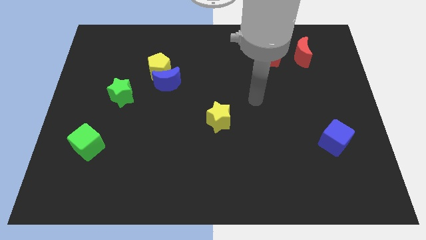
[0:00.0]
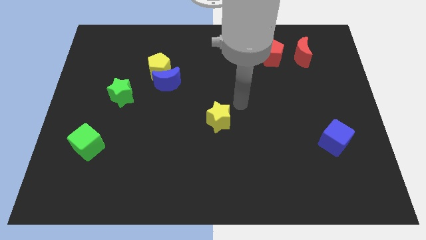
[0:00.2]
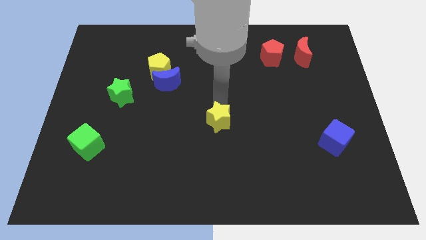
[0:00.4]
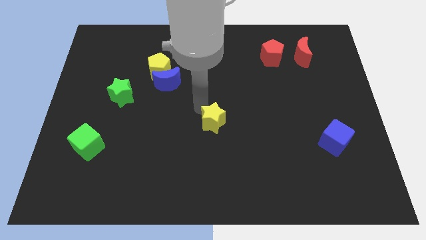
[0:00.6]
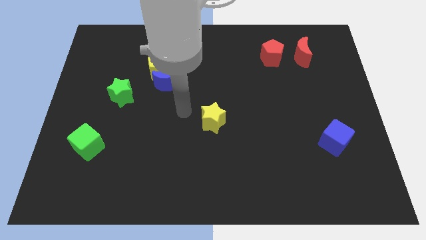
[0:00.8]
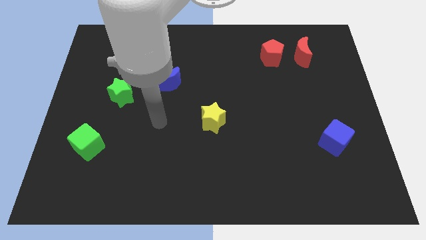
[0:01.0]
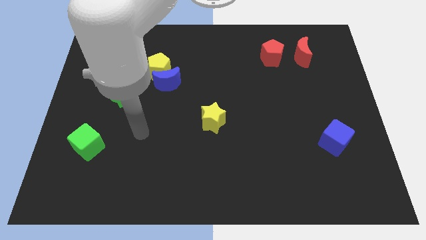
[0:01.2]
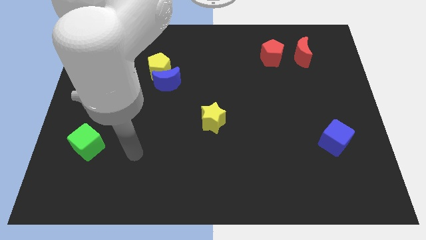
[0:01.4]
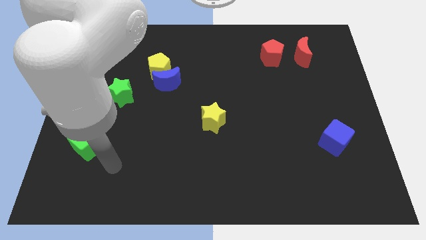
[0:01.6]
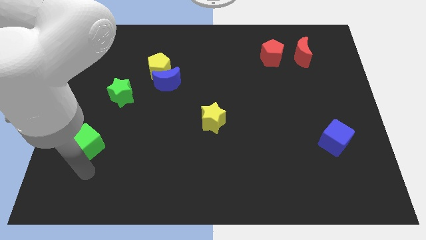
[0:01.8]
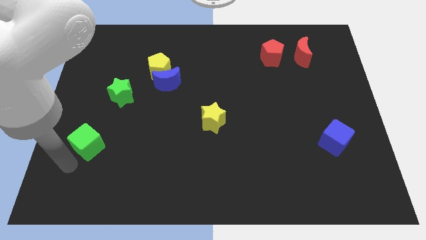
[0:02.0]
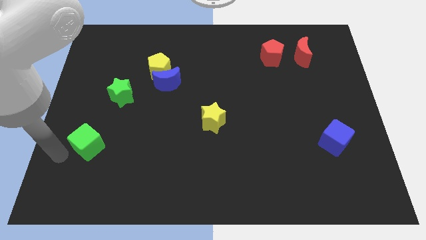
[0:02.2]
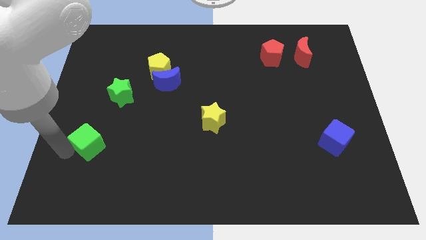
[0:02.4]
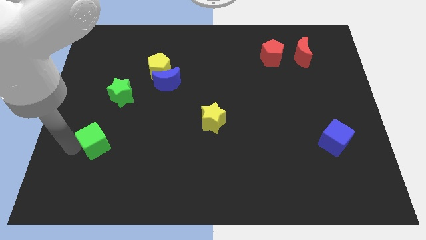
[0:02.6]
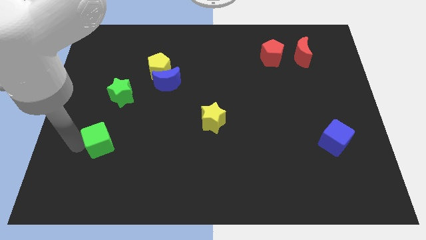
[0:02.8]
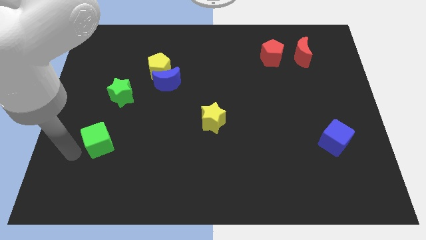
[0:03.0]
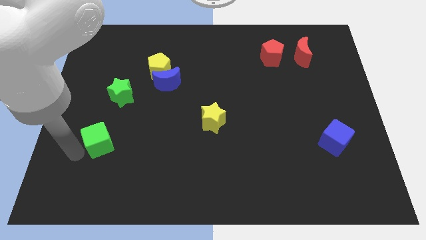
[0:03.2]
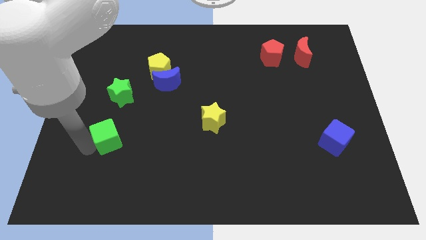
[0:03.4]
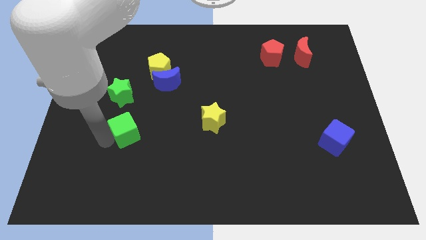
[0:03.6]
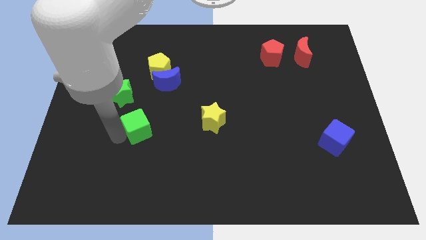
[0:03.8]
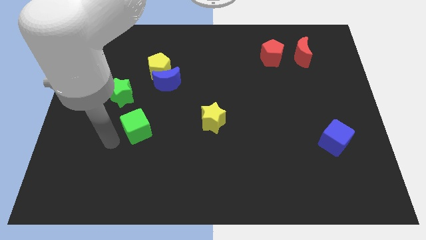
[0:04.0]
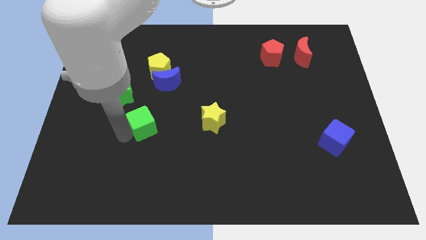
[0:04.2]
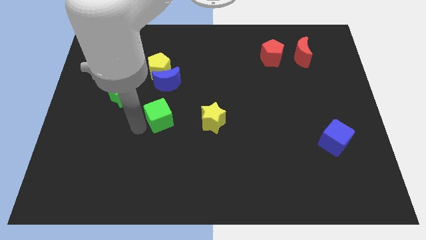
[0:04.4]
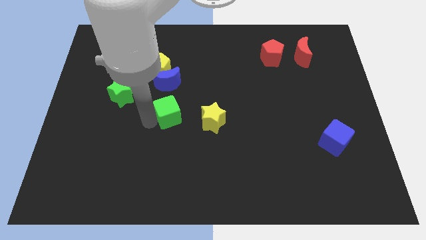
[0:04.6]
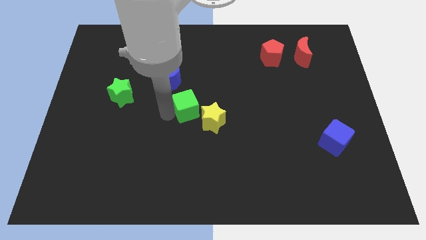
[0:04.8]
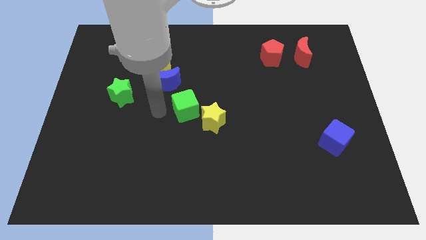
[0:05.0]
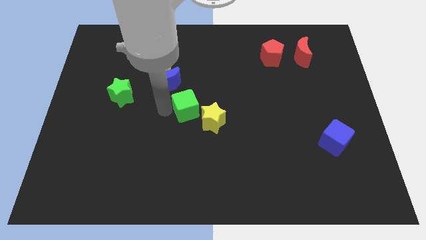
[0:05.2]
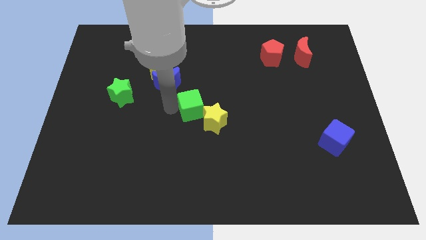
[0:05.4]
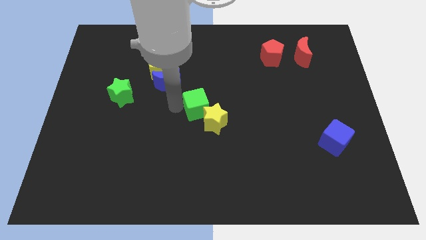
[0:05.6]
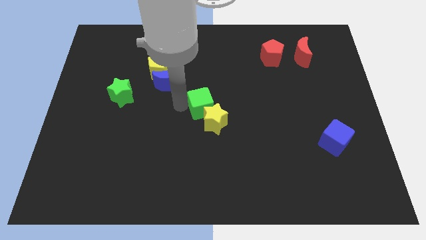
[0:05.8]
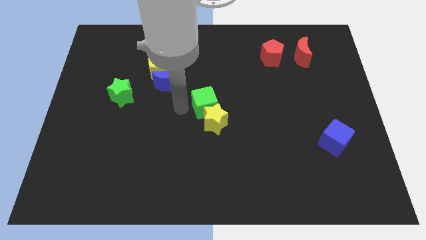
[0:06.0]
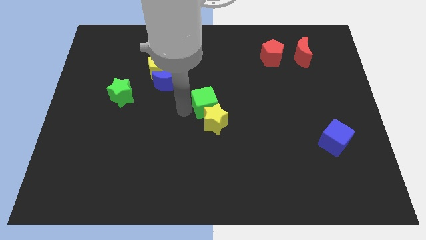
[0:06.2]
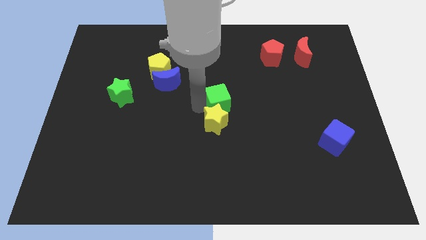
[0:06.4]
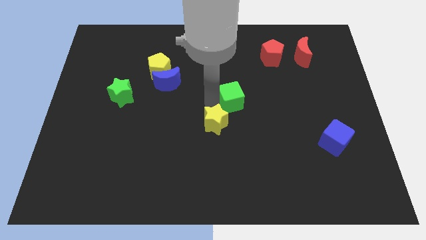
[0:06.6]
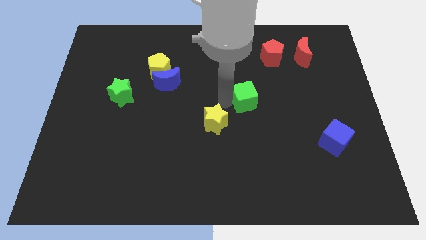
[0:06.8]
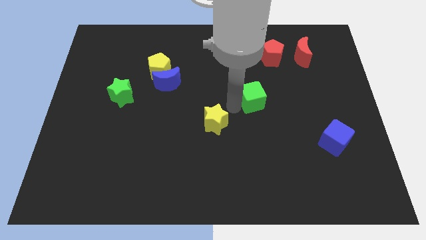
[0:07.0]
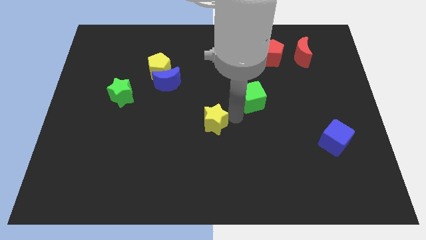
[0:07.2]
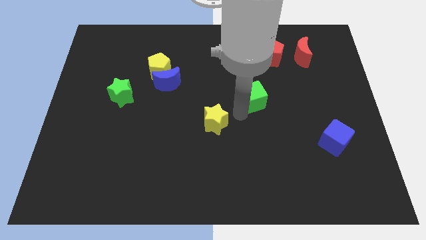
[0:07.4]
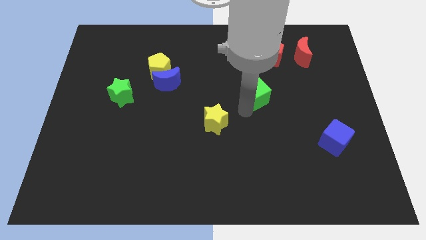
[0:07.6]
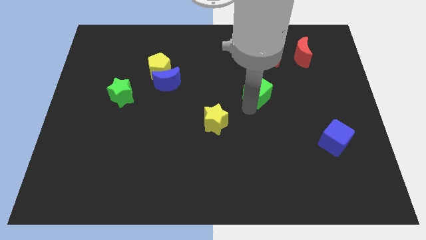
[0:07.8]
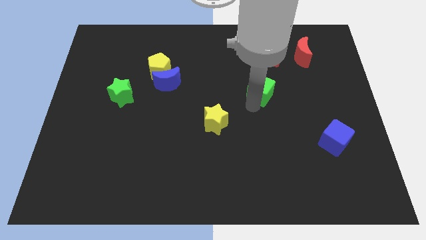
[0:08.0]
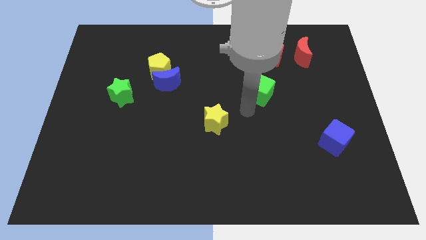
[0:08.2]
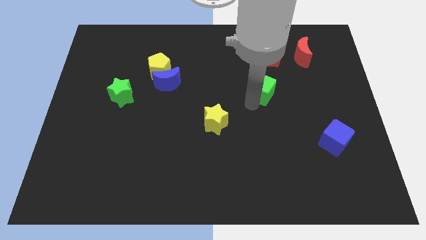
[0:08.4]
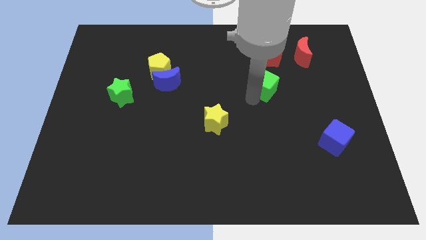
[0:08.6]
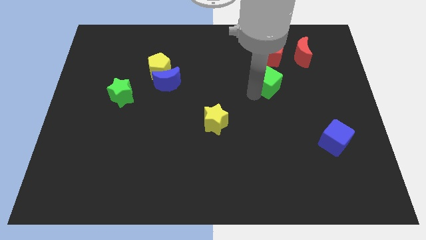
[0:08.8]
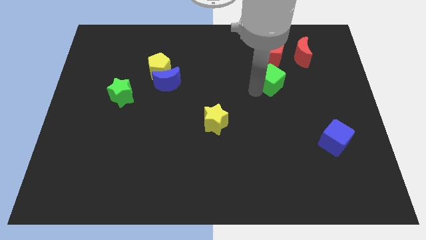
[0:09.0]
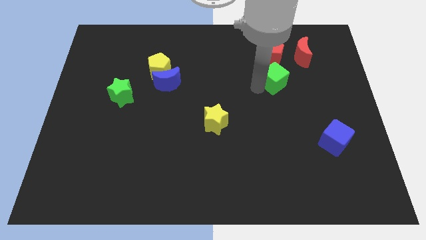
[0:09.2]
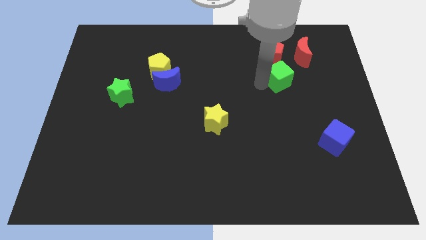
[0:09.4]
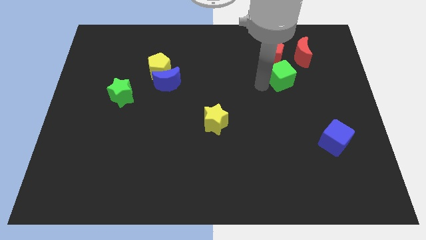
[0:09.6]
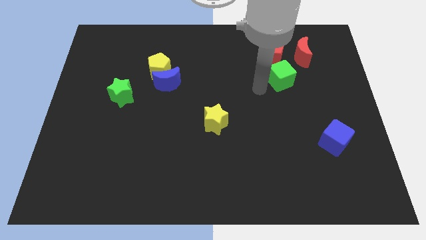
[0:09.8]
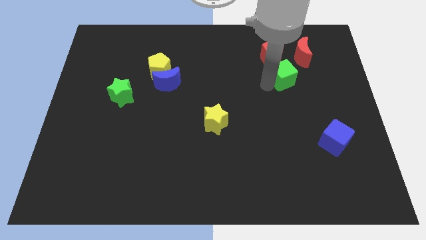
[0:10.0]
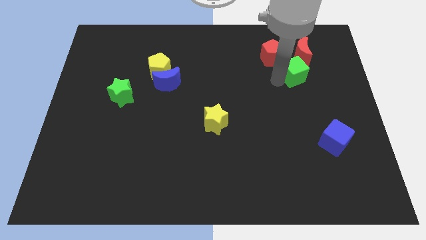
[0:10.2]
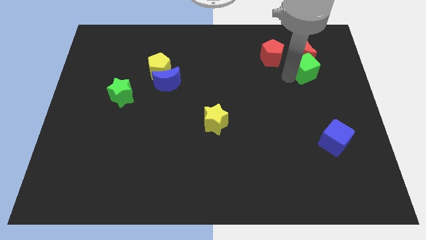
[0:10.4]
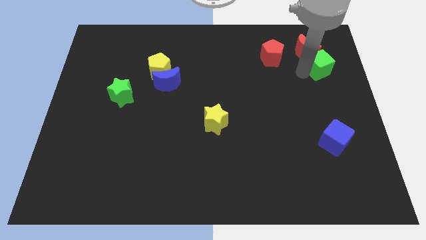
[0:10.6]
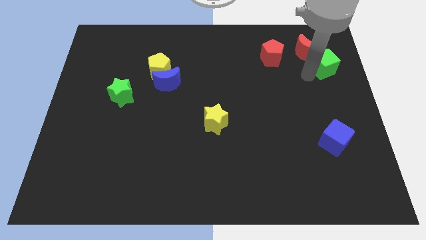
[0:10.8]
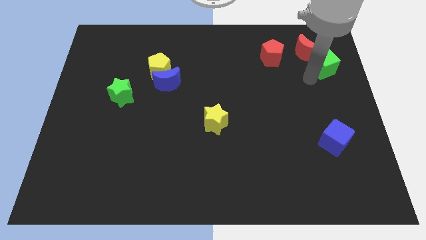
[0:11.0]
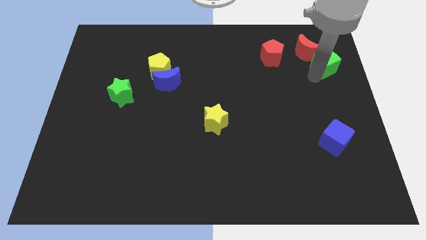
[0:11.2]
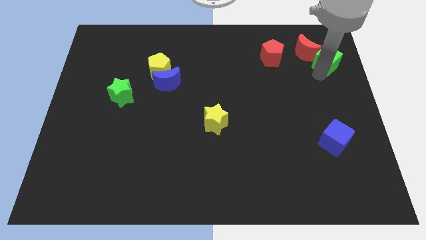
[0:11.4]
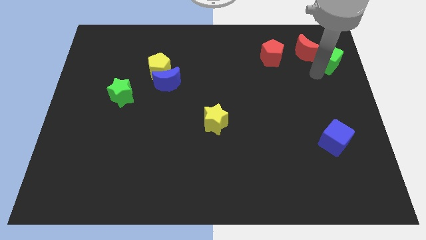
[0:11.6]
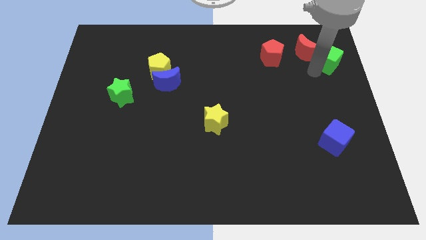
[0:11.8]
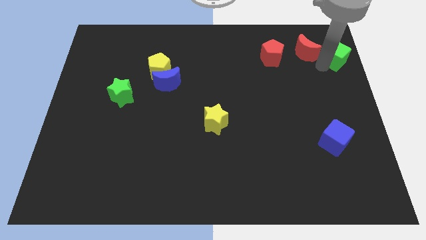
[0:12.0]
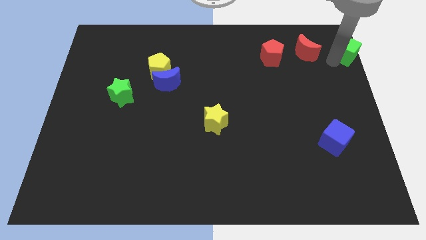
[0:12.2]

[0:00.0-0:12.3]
put the green cube to the top right of the board
